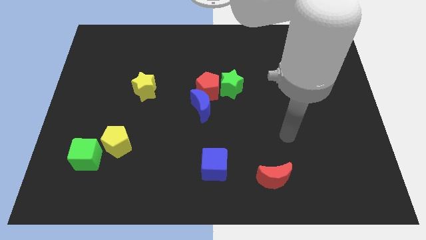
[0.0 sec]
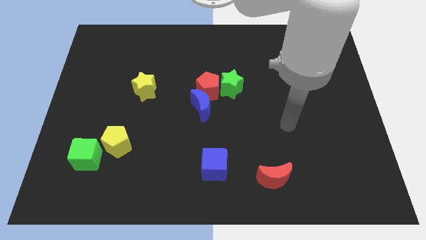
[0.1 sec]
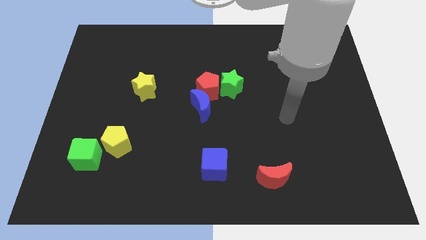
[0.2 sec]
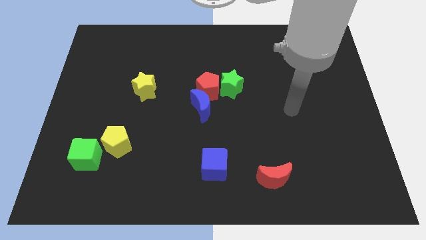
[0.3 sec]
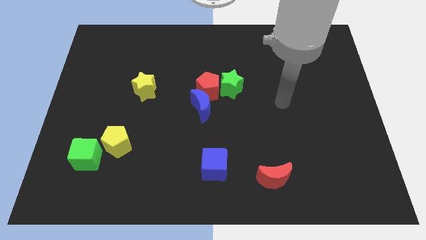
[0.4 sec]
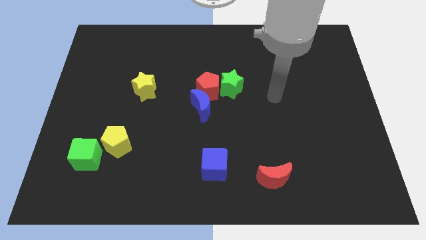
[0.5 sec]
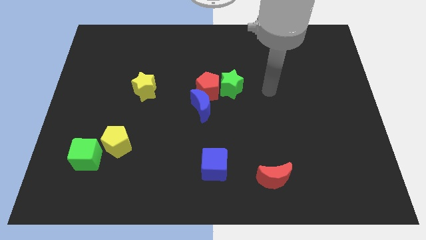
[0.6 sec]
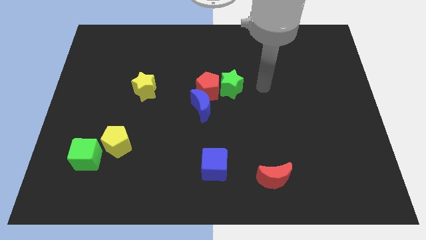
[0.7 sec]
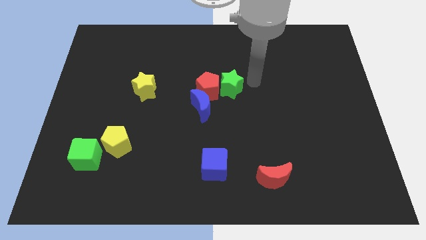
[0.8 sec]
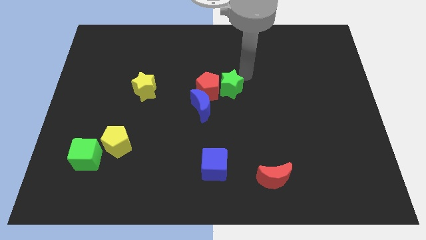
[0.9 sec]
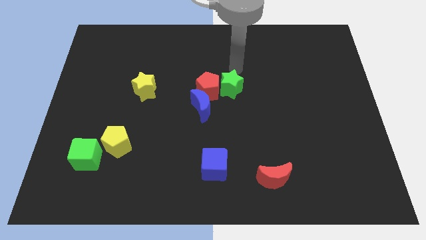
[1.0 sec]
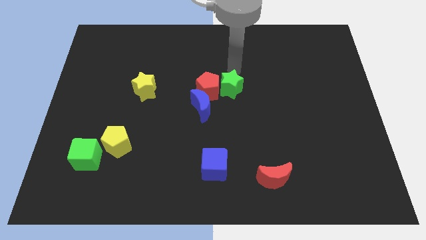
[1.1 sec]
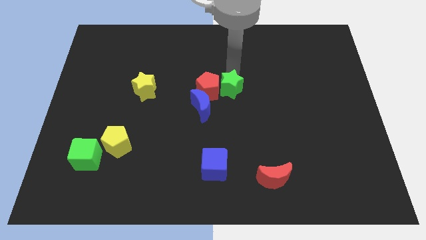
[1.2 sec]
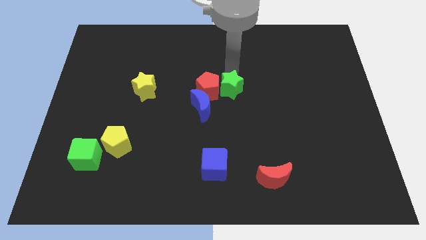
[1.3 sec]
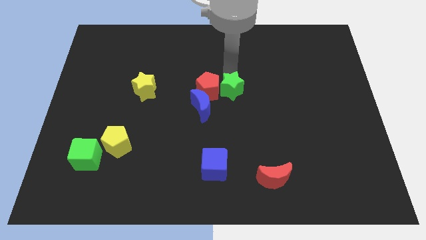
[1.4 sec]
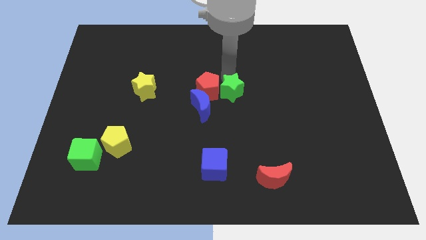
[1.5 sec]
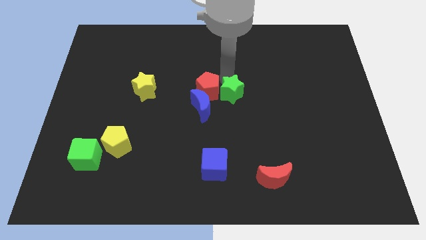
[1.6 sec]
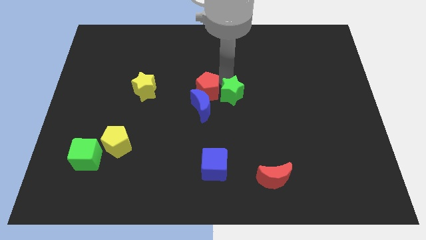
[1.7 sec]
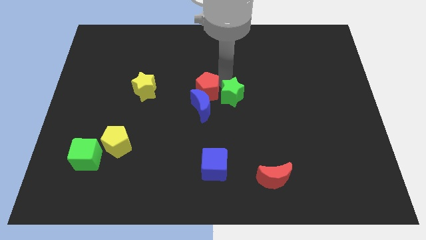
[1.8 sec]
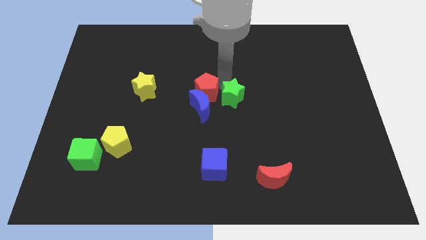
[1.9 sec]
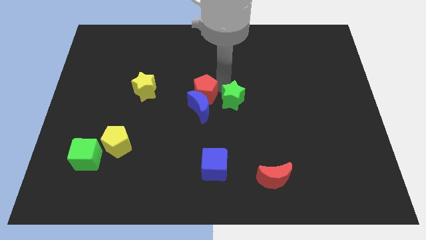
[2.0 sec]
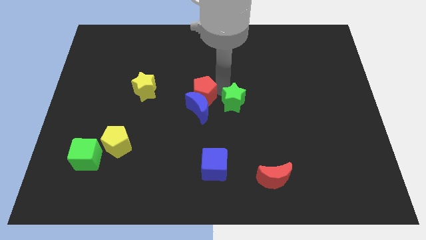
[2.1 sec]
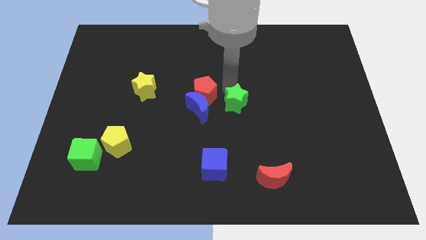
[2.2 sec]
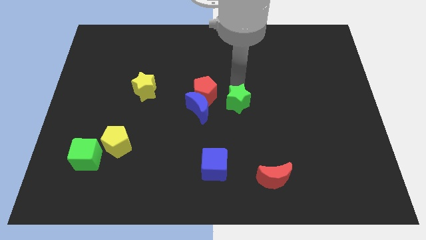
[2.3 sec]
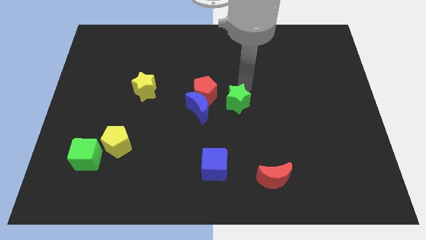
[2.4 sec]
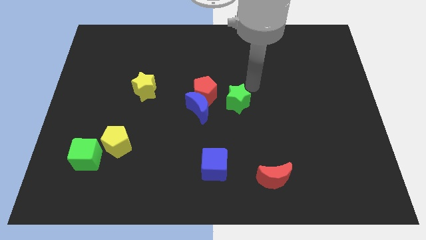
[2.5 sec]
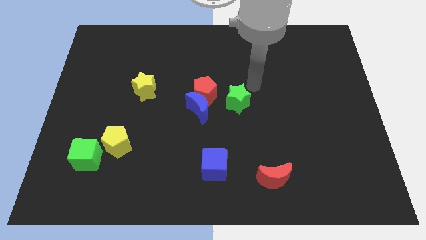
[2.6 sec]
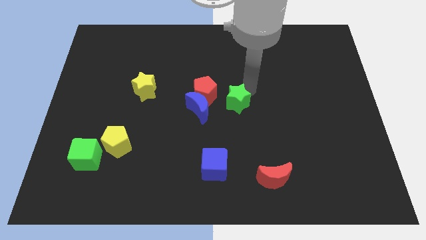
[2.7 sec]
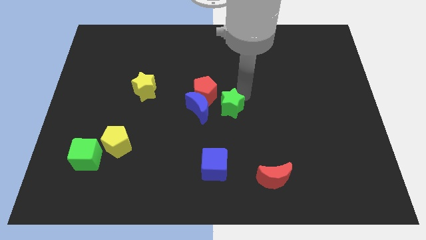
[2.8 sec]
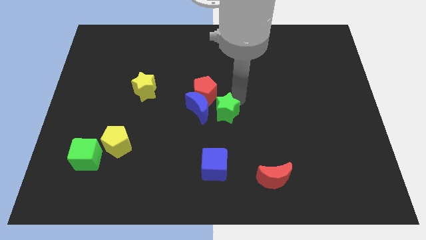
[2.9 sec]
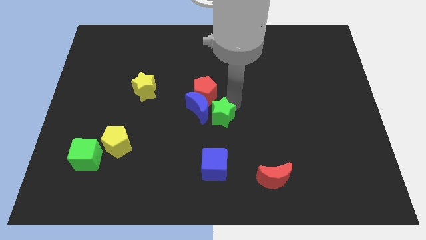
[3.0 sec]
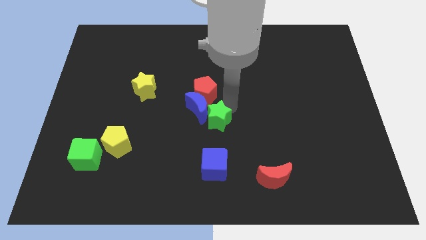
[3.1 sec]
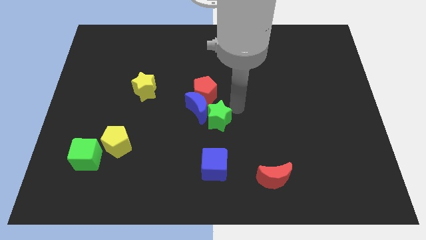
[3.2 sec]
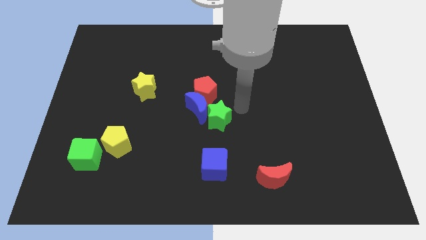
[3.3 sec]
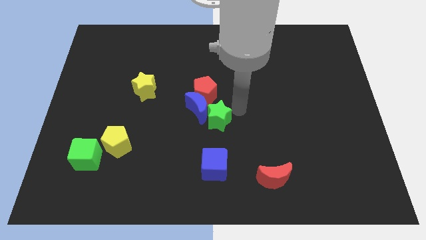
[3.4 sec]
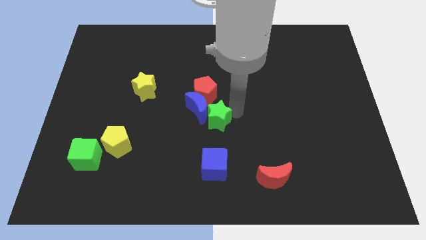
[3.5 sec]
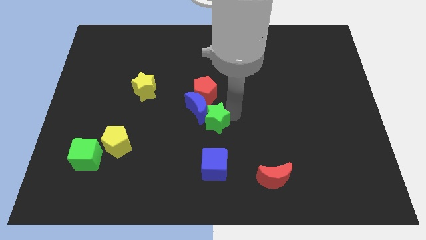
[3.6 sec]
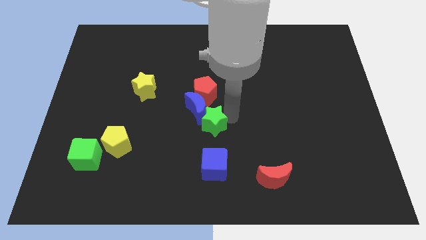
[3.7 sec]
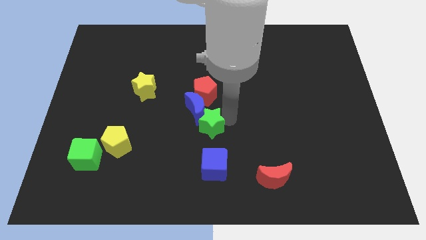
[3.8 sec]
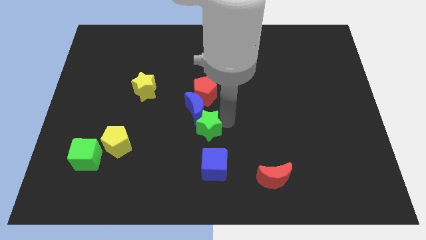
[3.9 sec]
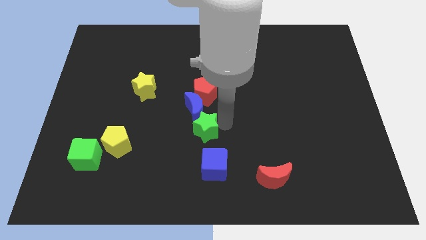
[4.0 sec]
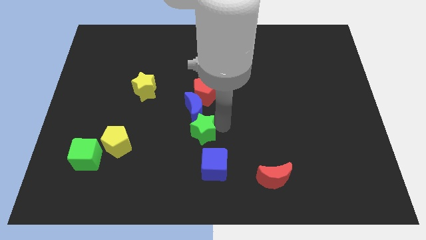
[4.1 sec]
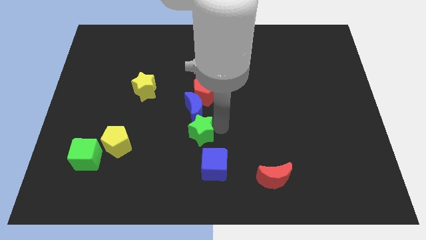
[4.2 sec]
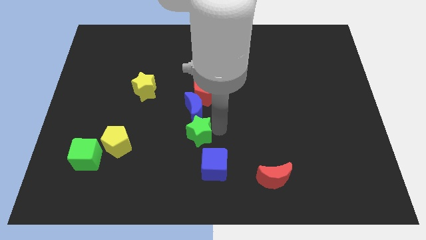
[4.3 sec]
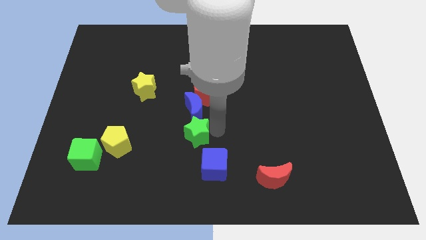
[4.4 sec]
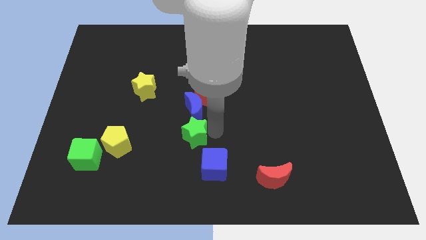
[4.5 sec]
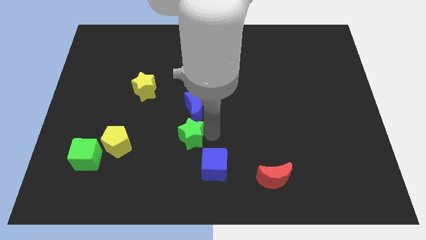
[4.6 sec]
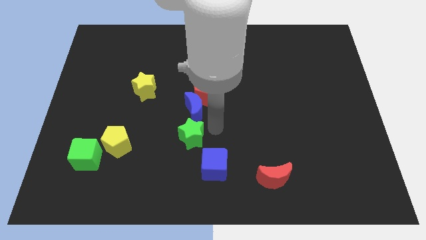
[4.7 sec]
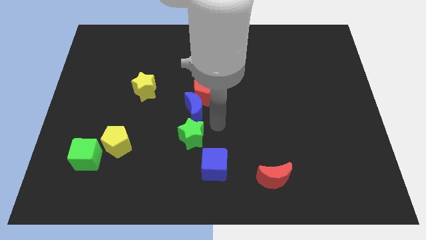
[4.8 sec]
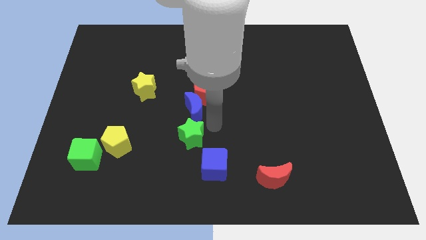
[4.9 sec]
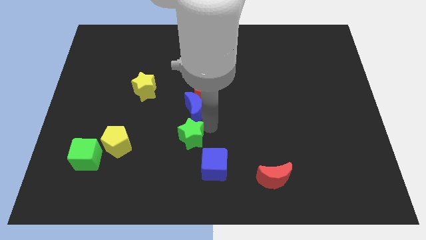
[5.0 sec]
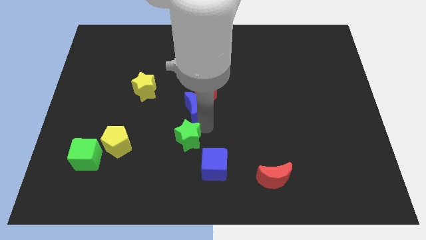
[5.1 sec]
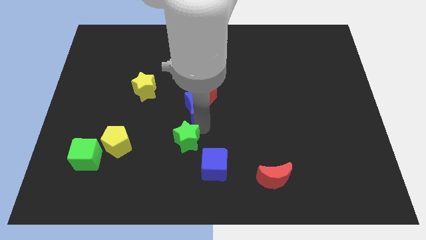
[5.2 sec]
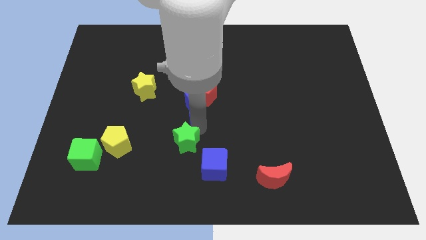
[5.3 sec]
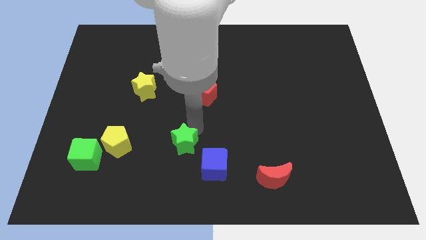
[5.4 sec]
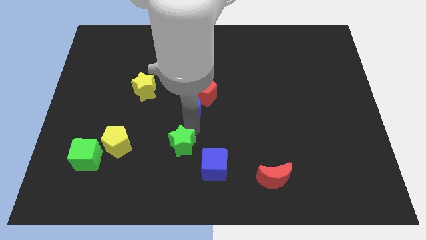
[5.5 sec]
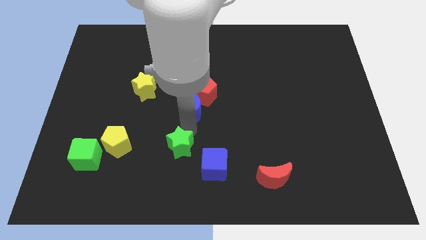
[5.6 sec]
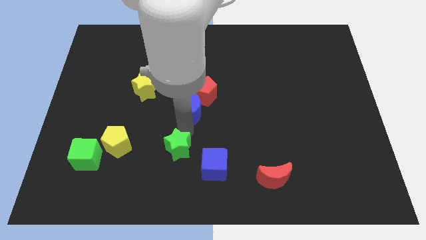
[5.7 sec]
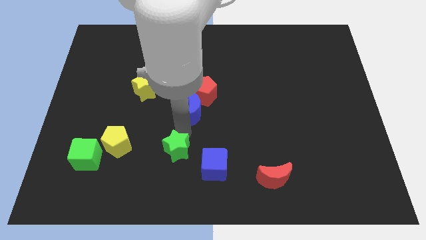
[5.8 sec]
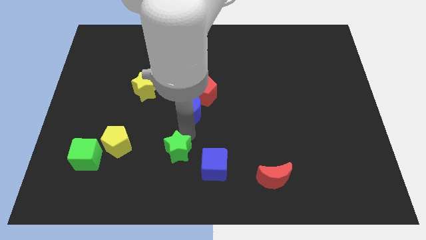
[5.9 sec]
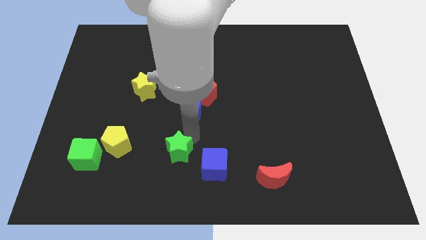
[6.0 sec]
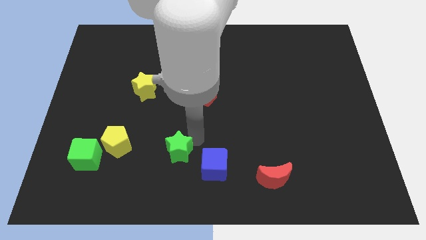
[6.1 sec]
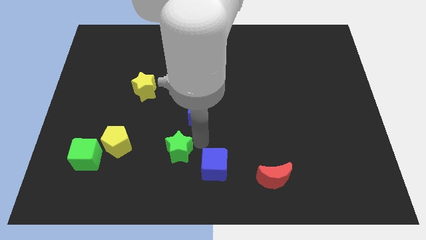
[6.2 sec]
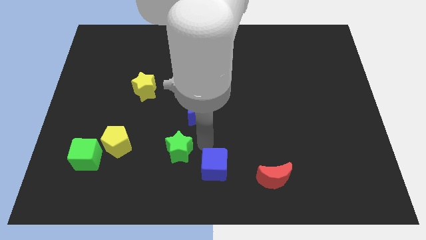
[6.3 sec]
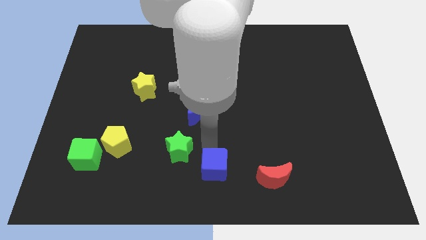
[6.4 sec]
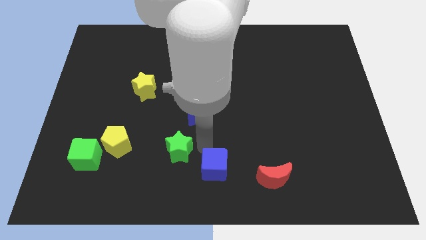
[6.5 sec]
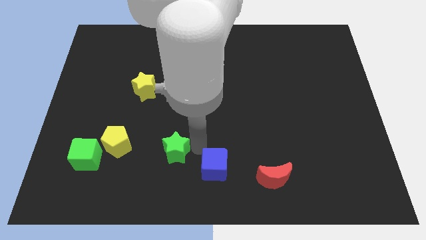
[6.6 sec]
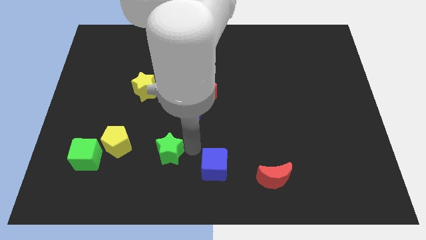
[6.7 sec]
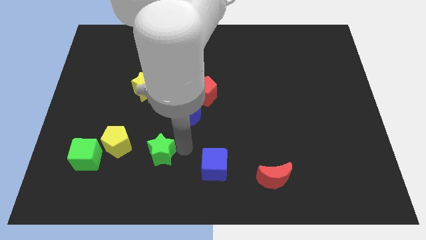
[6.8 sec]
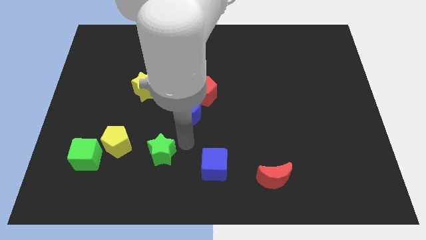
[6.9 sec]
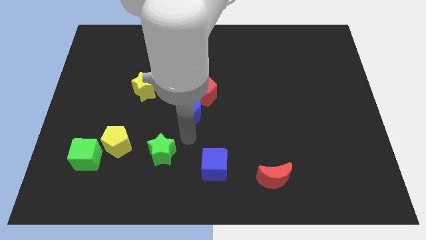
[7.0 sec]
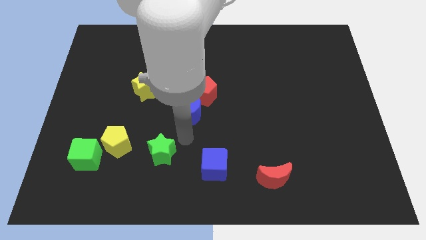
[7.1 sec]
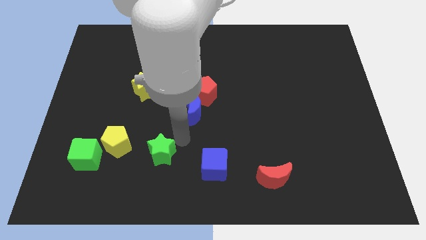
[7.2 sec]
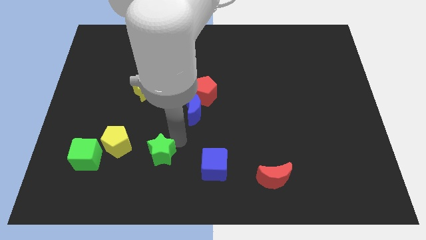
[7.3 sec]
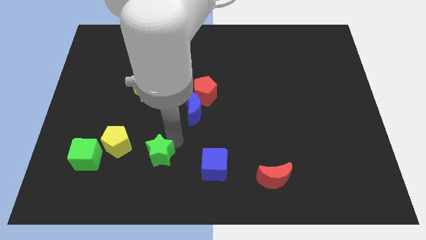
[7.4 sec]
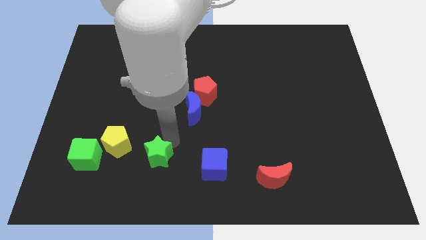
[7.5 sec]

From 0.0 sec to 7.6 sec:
slide the green star to the bottom right of the yellow pentagon

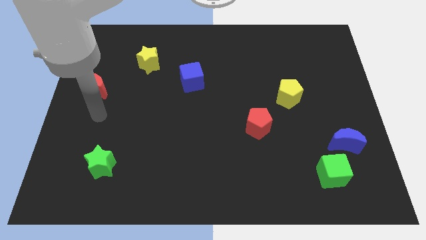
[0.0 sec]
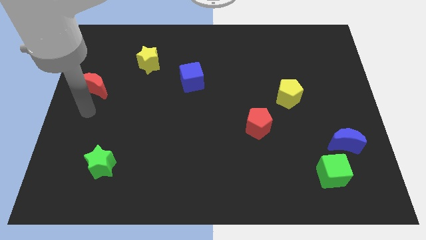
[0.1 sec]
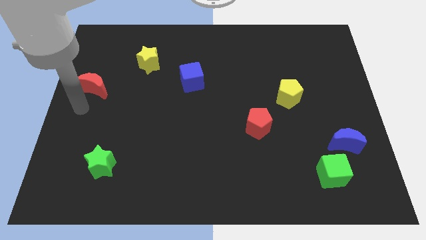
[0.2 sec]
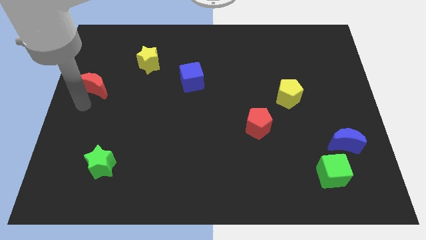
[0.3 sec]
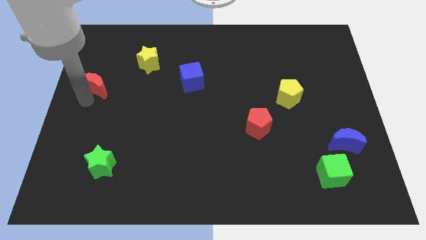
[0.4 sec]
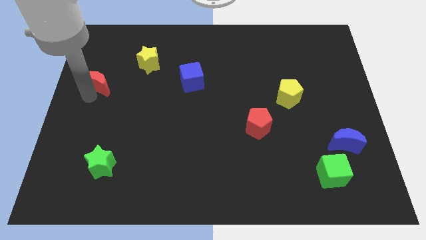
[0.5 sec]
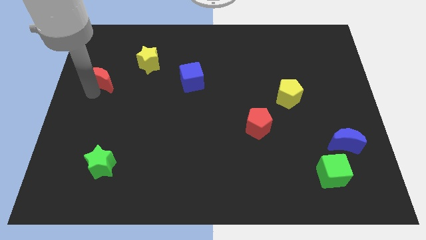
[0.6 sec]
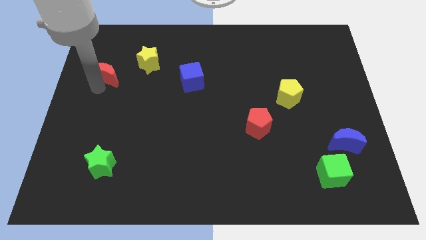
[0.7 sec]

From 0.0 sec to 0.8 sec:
put the red moon left of the yellow star

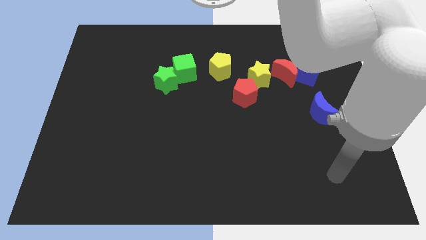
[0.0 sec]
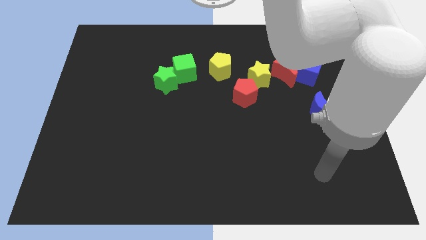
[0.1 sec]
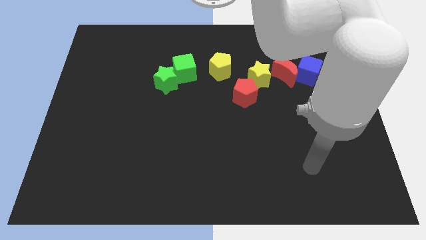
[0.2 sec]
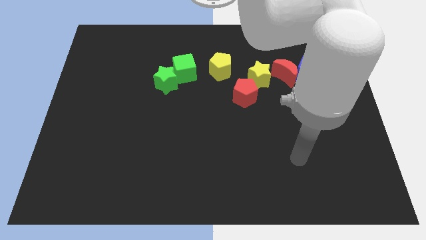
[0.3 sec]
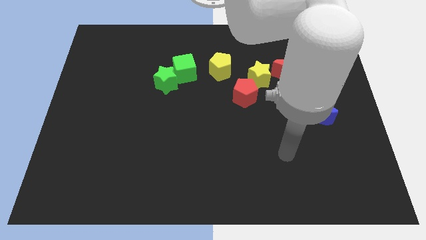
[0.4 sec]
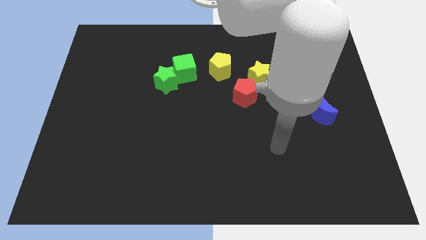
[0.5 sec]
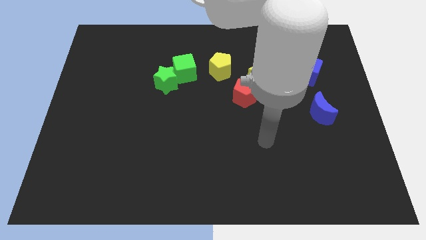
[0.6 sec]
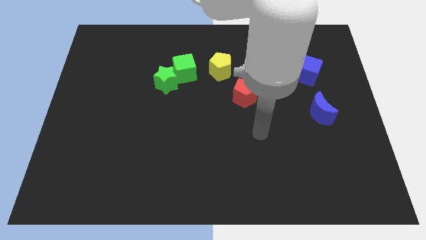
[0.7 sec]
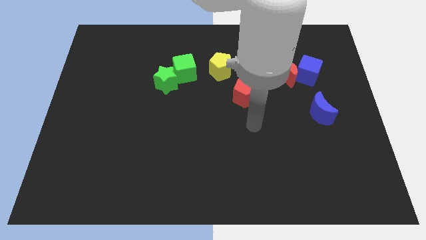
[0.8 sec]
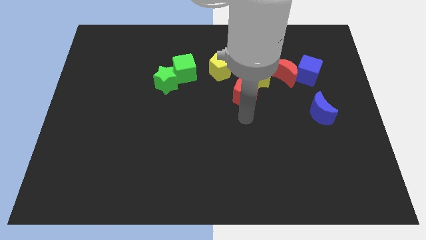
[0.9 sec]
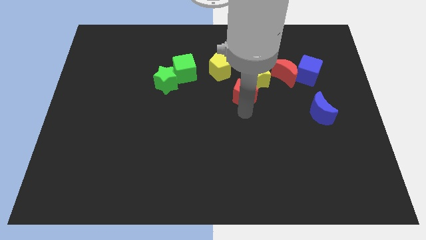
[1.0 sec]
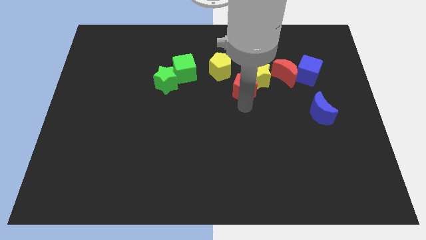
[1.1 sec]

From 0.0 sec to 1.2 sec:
put the red pentagon left of the red moon
